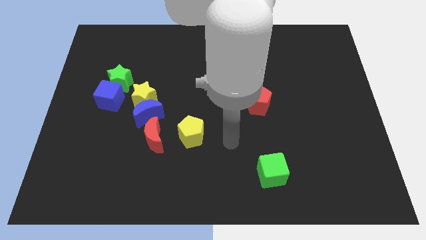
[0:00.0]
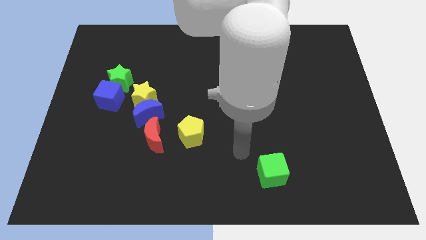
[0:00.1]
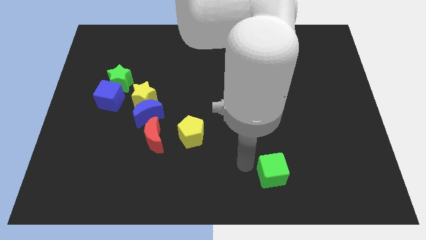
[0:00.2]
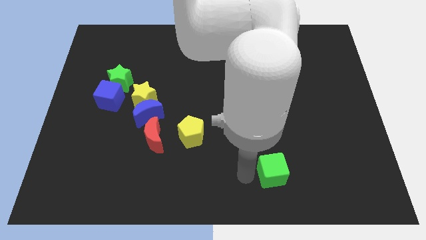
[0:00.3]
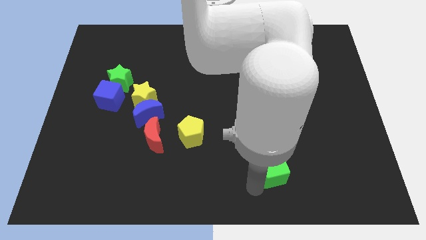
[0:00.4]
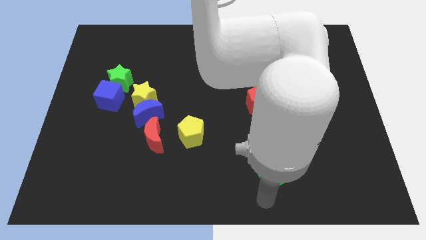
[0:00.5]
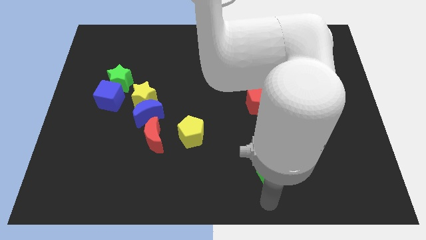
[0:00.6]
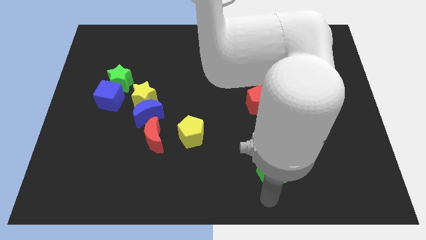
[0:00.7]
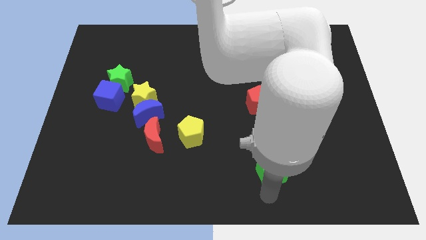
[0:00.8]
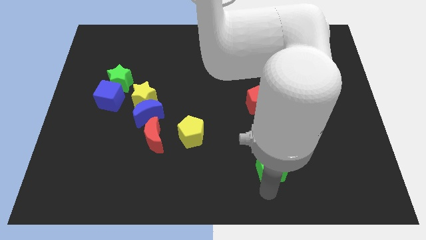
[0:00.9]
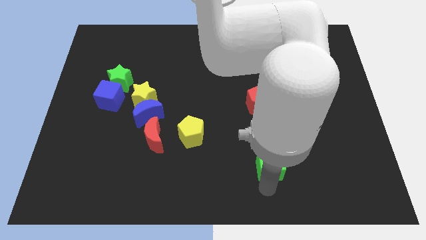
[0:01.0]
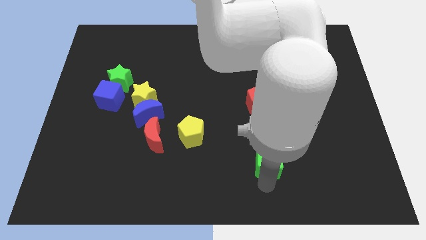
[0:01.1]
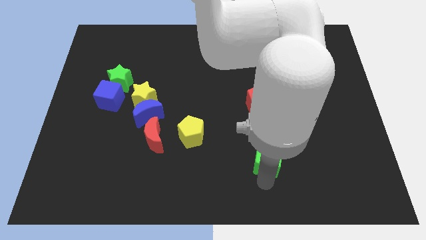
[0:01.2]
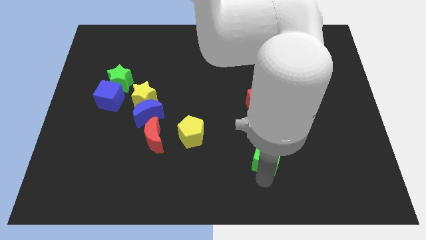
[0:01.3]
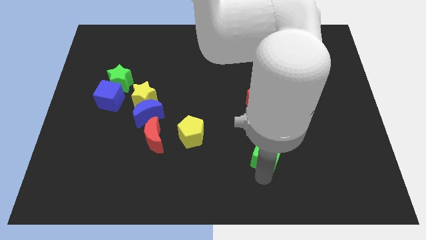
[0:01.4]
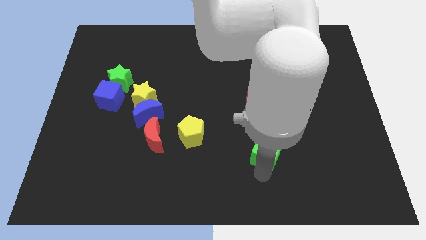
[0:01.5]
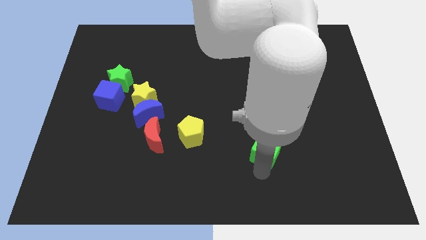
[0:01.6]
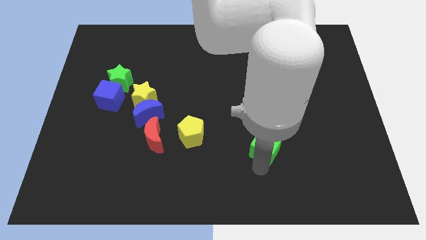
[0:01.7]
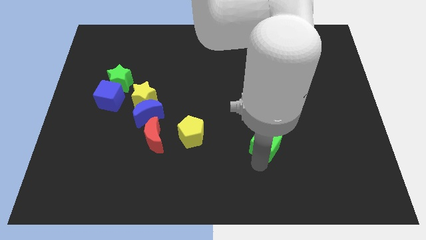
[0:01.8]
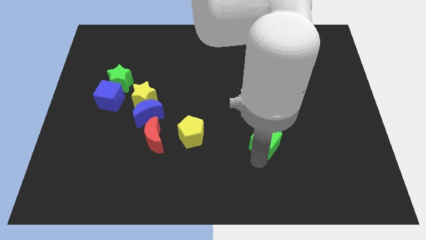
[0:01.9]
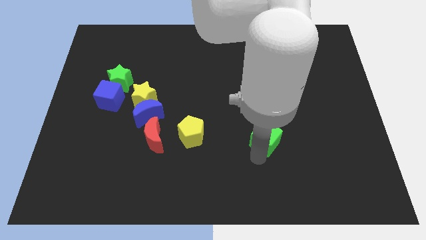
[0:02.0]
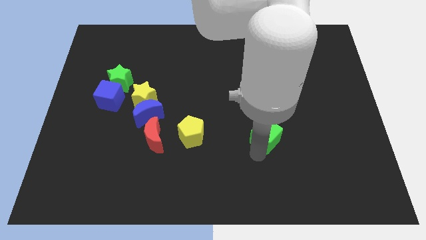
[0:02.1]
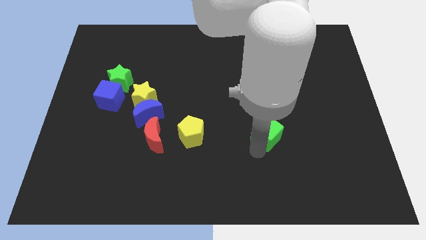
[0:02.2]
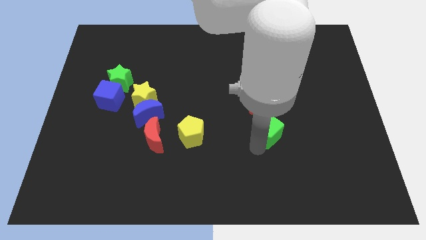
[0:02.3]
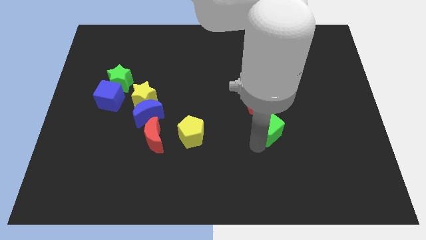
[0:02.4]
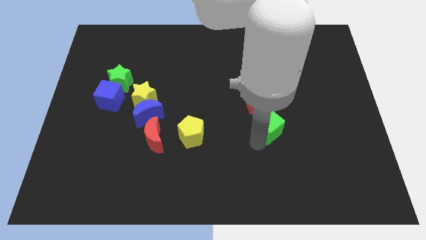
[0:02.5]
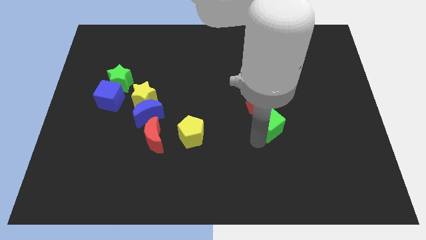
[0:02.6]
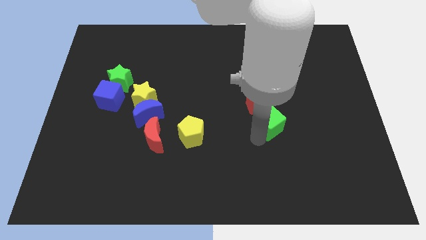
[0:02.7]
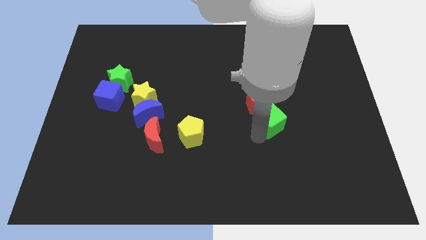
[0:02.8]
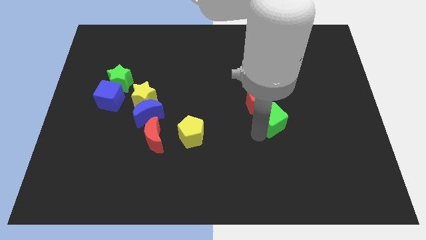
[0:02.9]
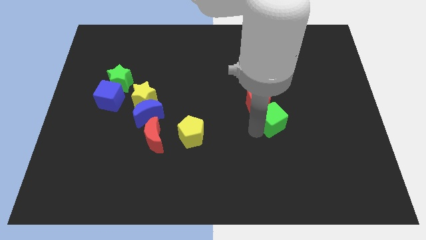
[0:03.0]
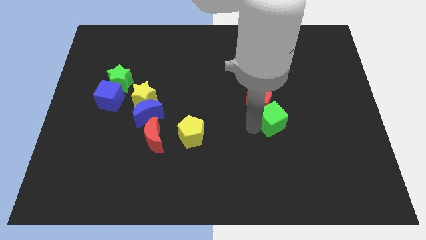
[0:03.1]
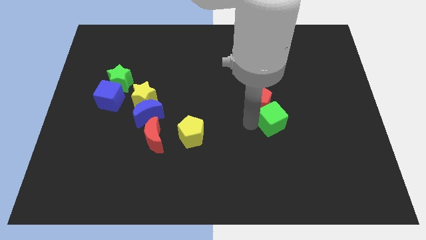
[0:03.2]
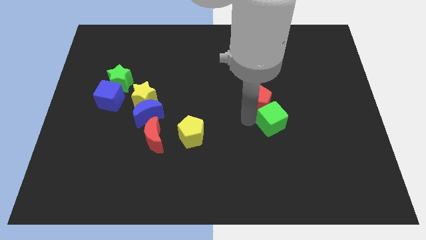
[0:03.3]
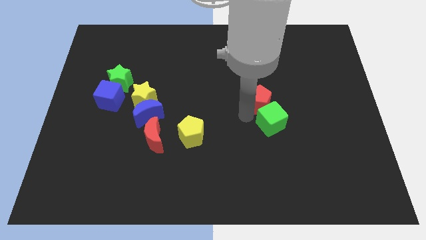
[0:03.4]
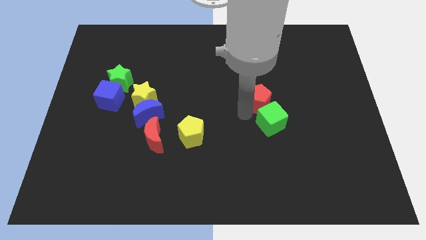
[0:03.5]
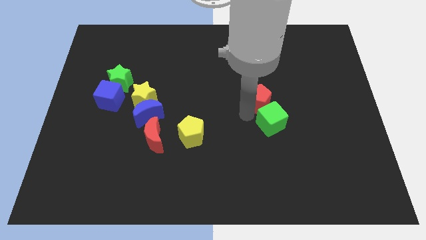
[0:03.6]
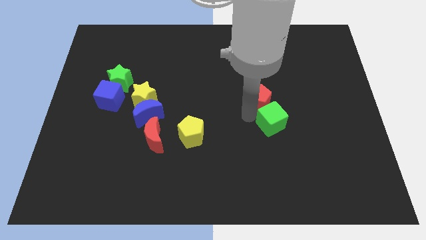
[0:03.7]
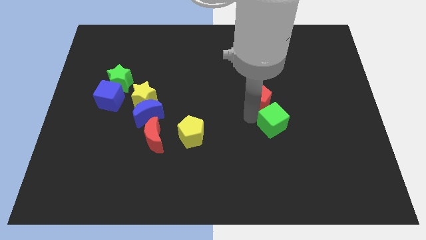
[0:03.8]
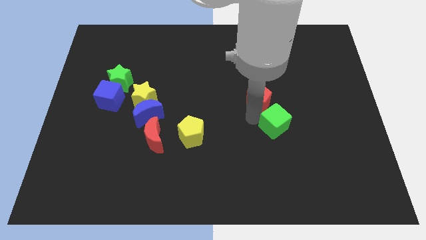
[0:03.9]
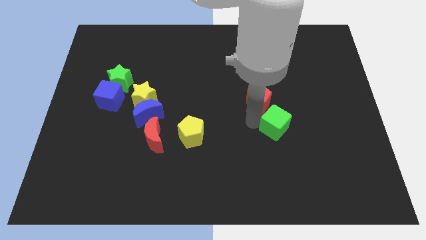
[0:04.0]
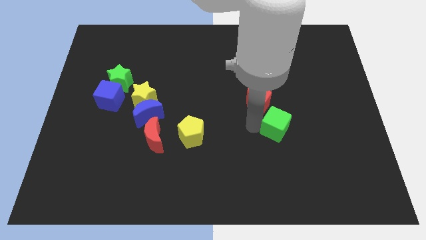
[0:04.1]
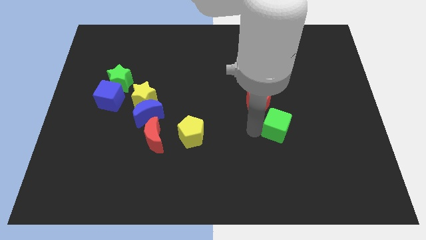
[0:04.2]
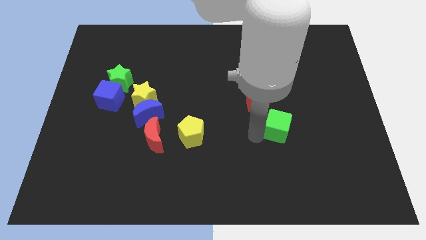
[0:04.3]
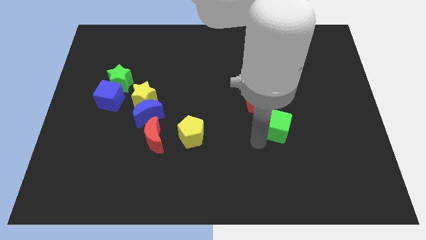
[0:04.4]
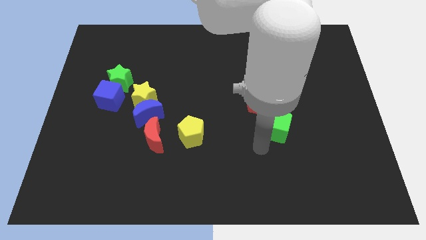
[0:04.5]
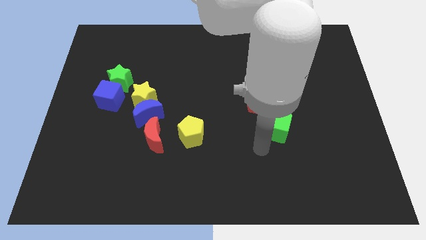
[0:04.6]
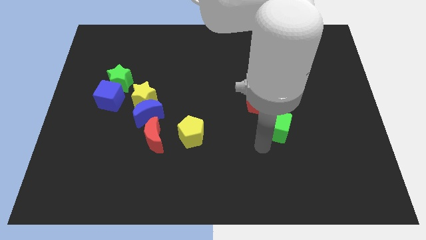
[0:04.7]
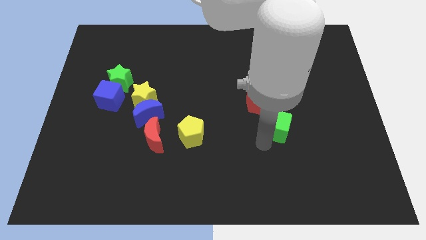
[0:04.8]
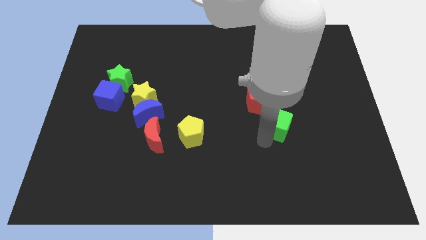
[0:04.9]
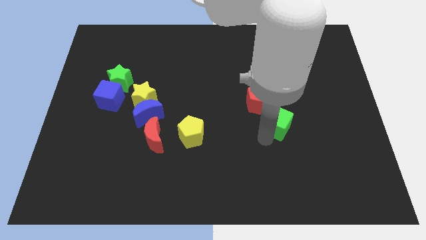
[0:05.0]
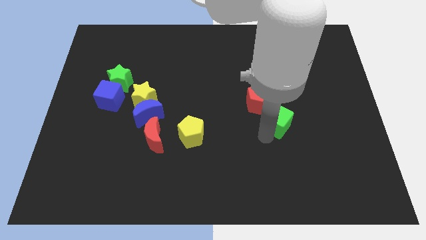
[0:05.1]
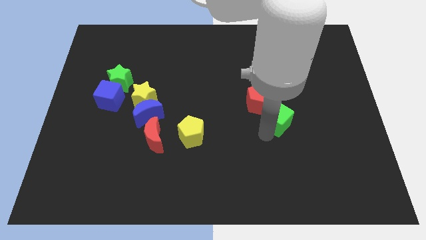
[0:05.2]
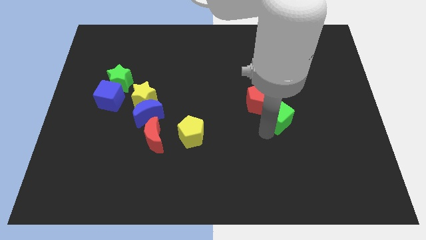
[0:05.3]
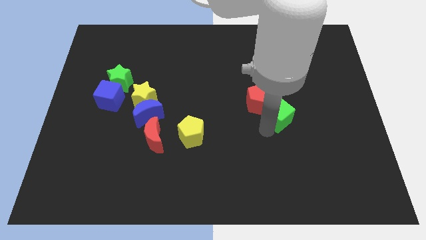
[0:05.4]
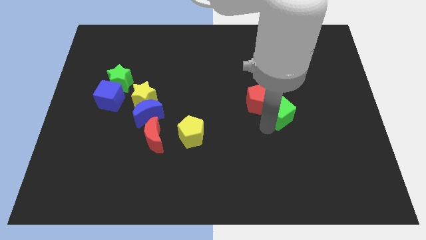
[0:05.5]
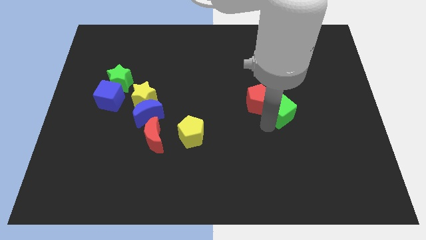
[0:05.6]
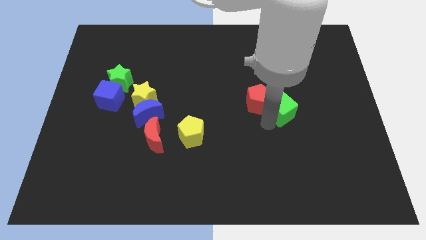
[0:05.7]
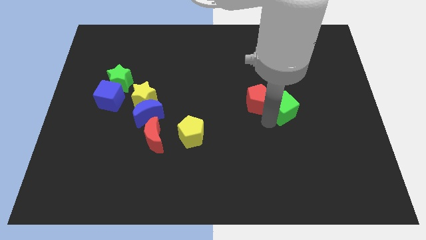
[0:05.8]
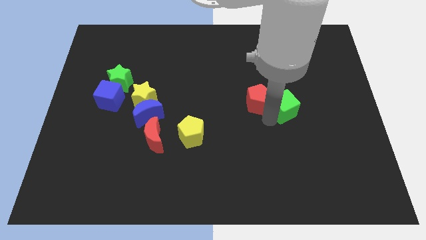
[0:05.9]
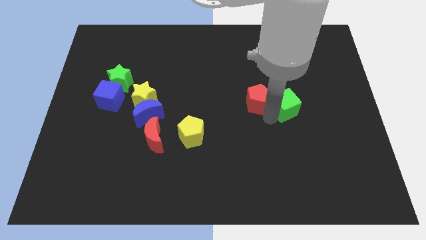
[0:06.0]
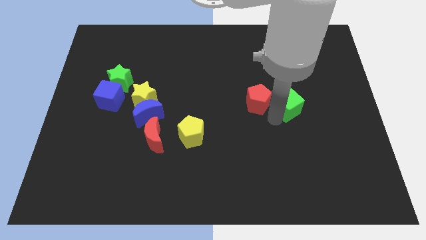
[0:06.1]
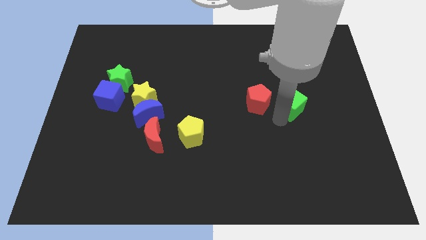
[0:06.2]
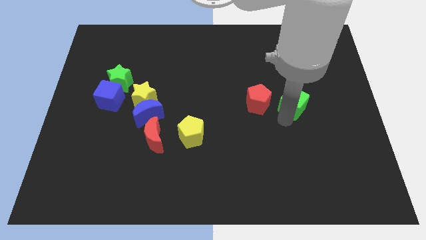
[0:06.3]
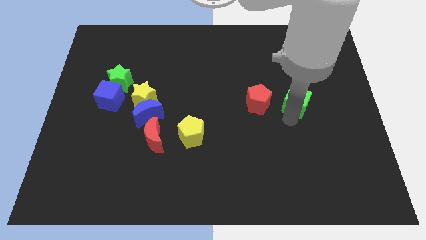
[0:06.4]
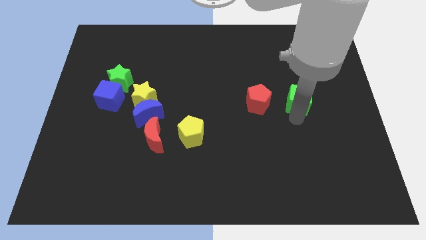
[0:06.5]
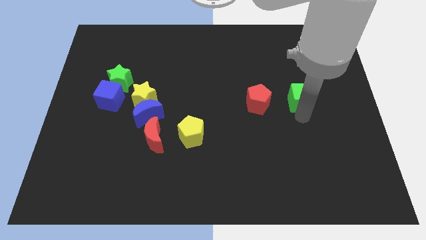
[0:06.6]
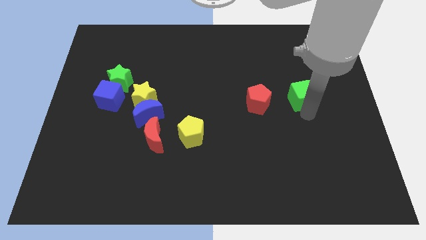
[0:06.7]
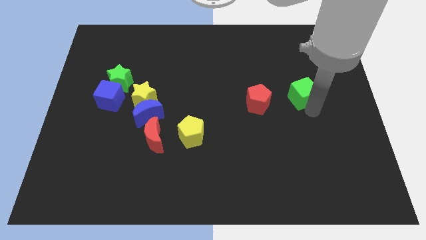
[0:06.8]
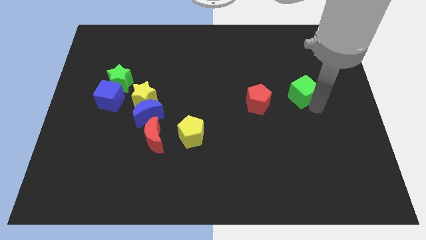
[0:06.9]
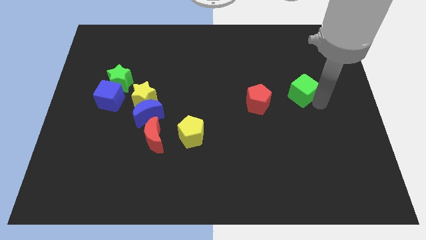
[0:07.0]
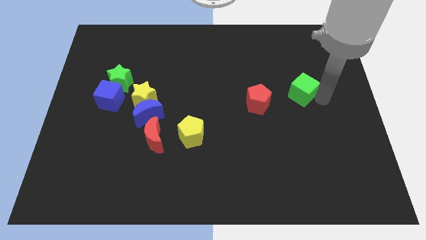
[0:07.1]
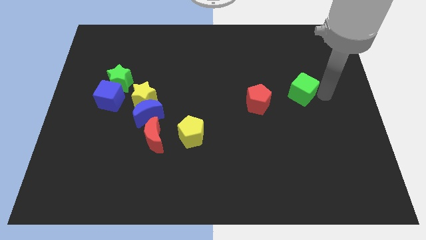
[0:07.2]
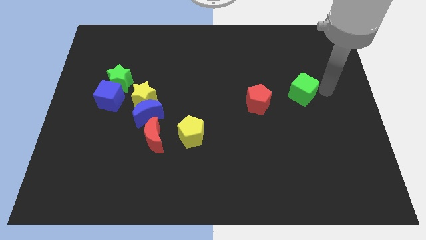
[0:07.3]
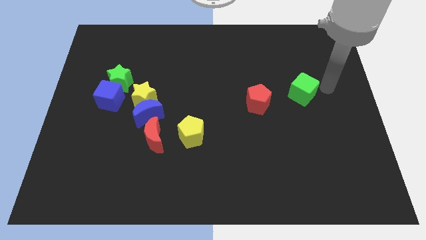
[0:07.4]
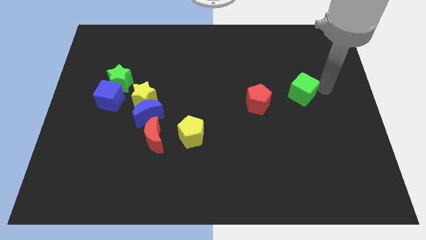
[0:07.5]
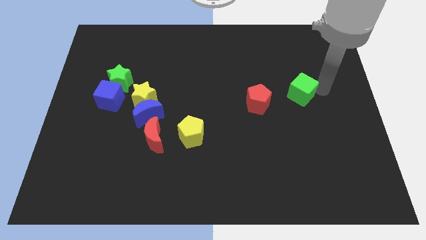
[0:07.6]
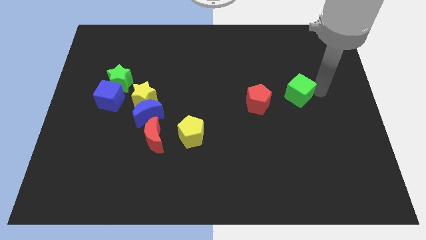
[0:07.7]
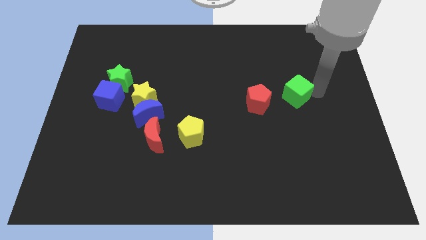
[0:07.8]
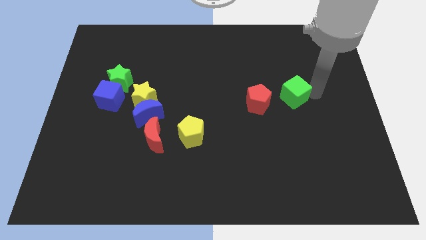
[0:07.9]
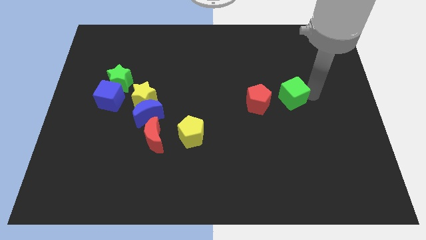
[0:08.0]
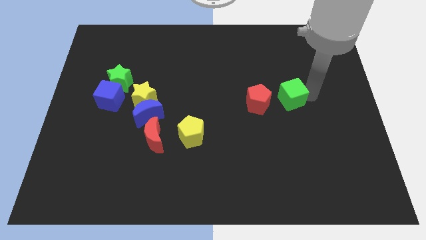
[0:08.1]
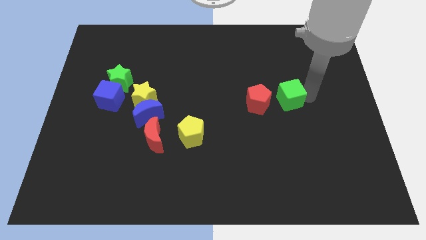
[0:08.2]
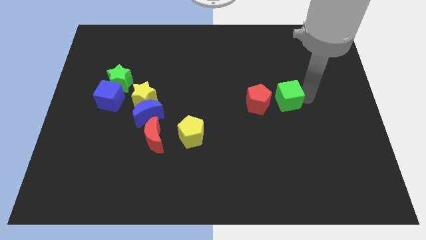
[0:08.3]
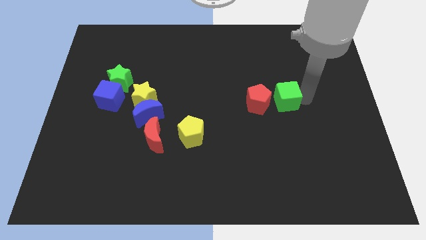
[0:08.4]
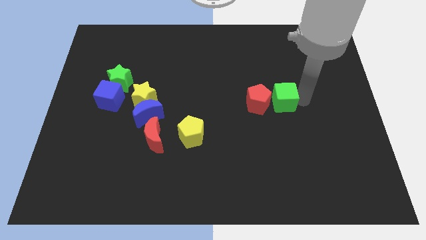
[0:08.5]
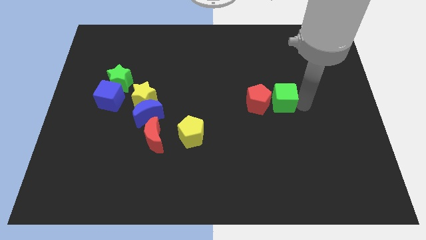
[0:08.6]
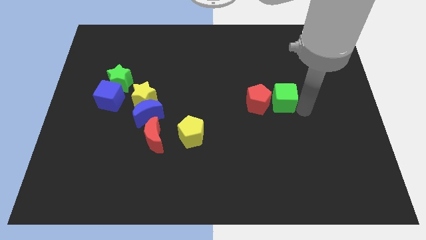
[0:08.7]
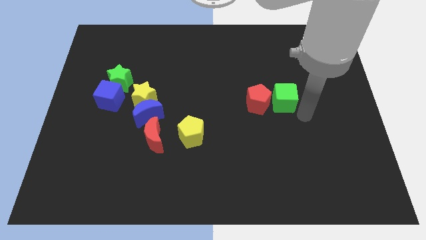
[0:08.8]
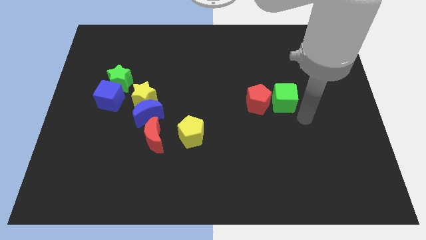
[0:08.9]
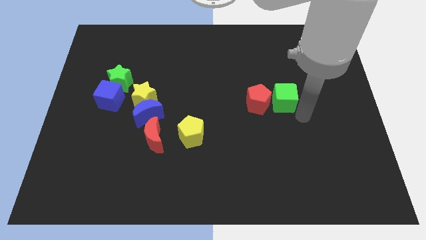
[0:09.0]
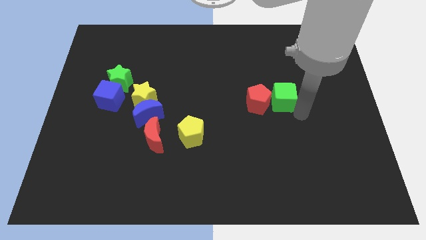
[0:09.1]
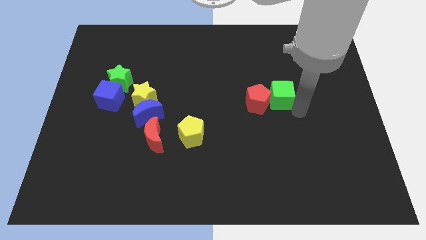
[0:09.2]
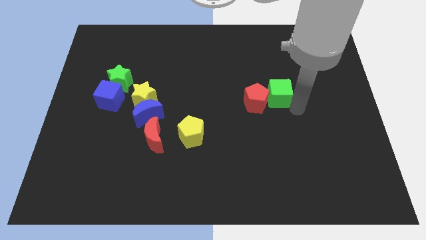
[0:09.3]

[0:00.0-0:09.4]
push the green cube upwards
